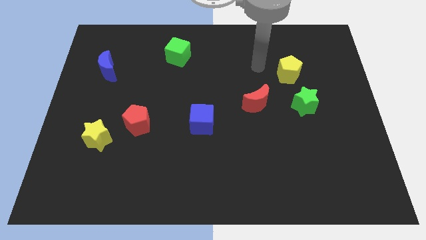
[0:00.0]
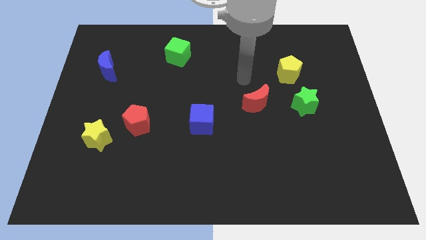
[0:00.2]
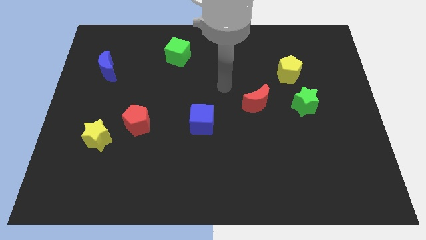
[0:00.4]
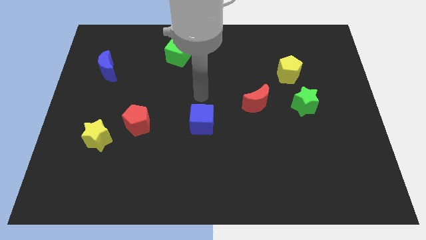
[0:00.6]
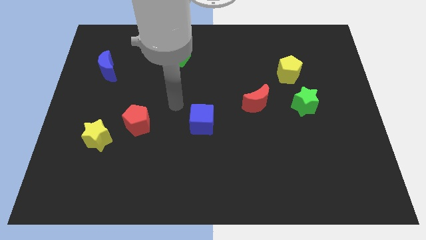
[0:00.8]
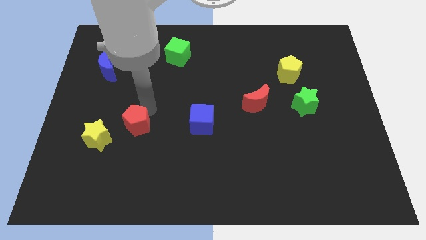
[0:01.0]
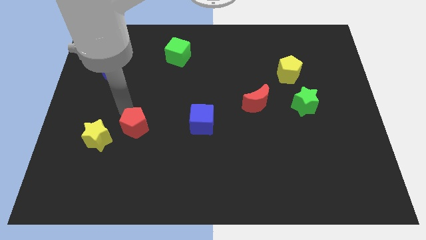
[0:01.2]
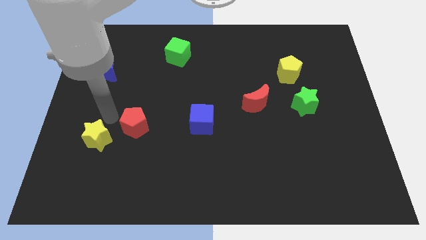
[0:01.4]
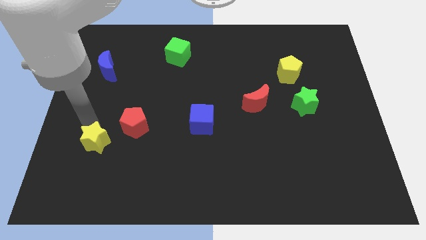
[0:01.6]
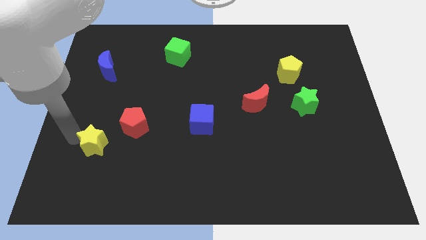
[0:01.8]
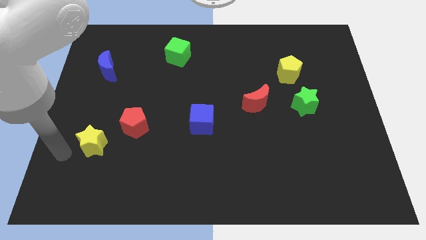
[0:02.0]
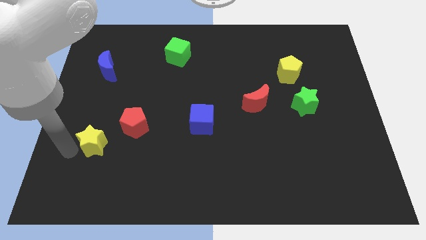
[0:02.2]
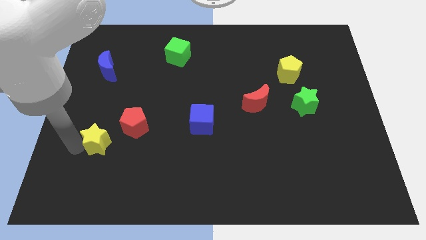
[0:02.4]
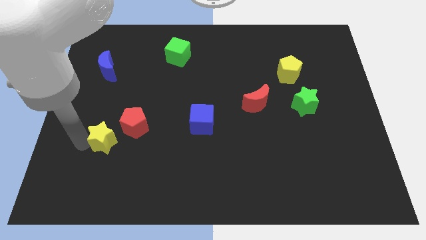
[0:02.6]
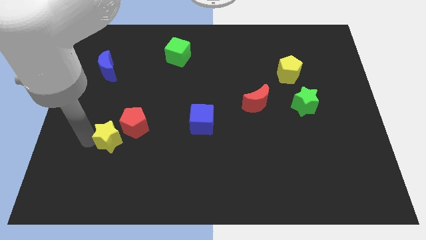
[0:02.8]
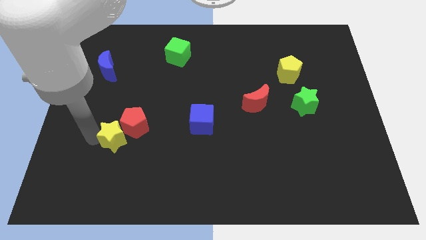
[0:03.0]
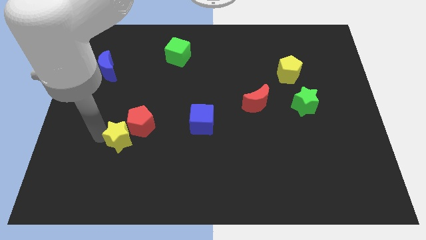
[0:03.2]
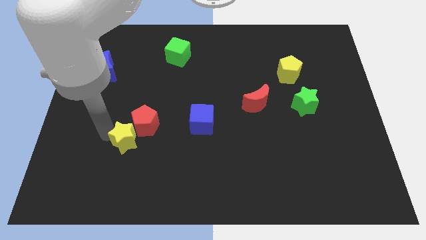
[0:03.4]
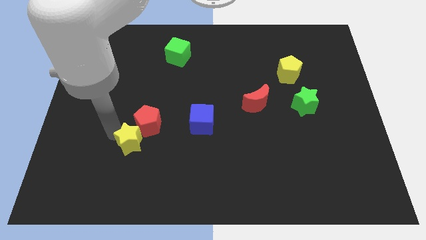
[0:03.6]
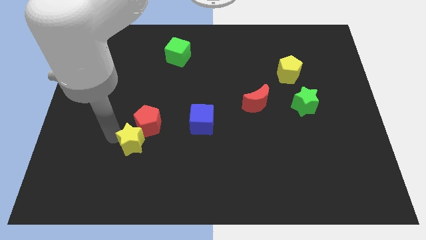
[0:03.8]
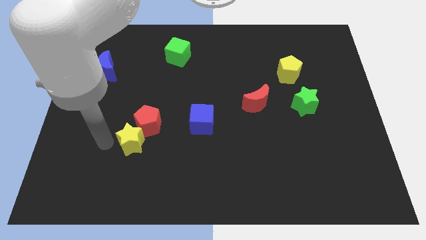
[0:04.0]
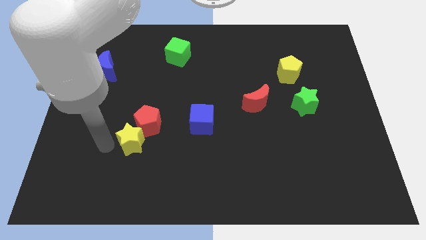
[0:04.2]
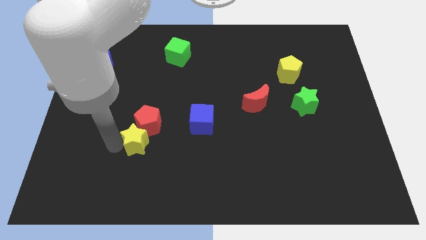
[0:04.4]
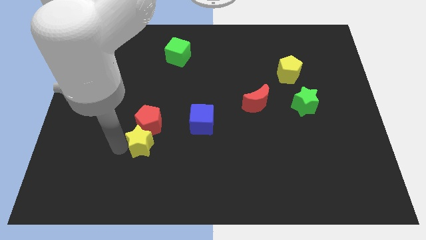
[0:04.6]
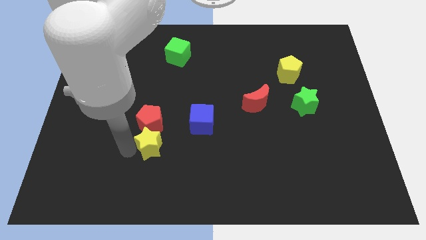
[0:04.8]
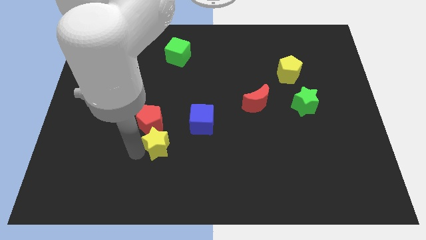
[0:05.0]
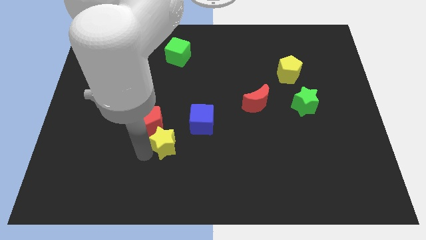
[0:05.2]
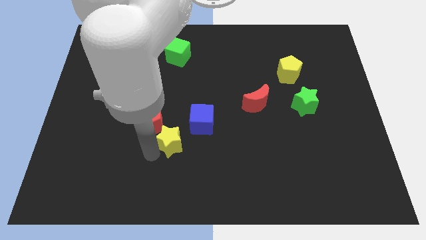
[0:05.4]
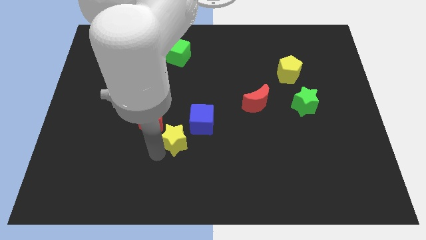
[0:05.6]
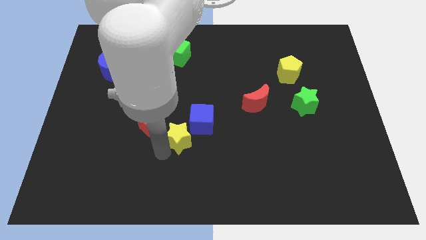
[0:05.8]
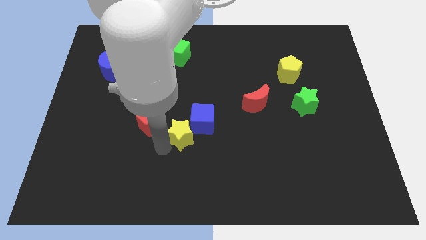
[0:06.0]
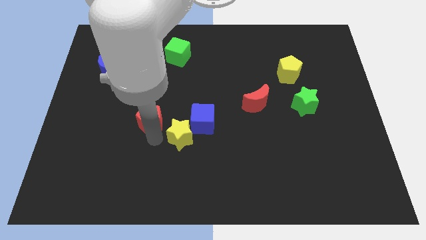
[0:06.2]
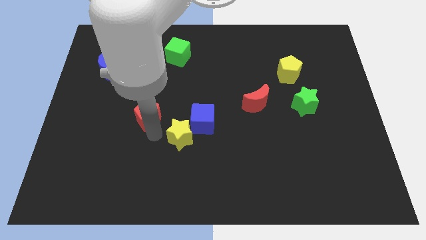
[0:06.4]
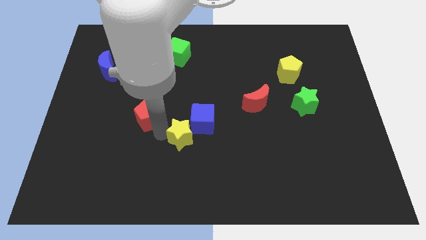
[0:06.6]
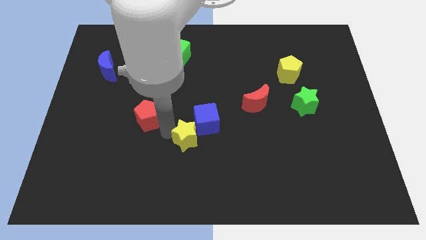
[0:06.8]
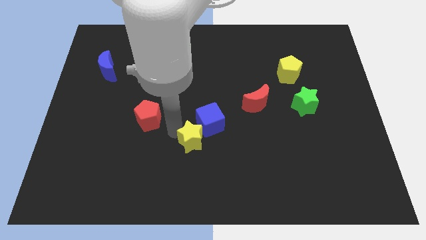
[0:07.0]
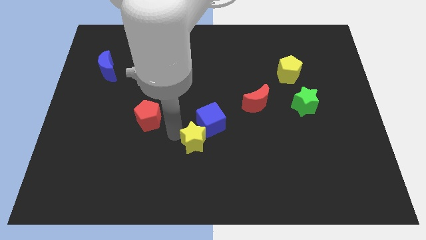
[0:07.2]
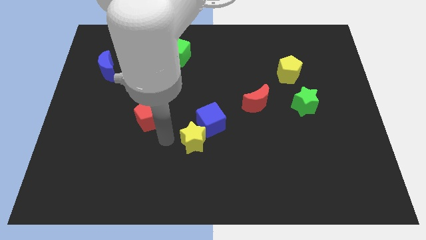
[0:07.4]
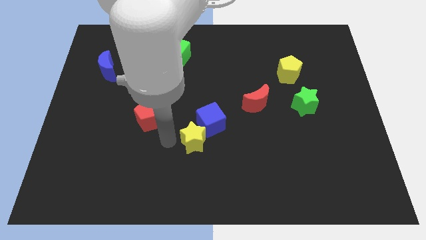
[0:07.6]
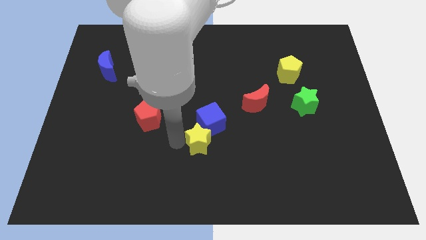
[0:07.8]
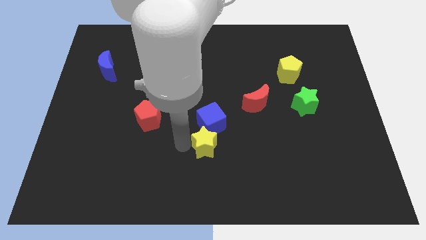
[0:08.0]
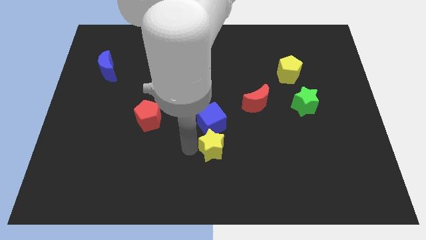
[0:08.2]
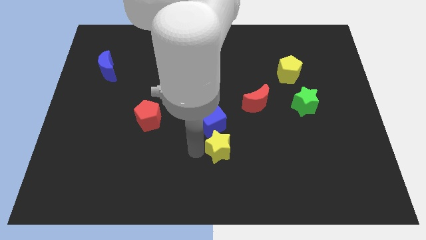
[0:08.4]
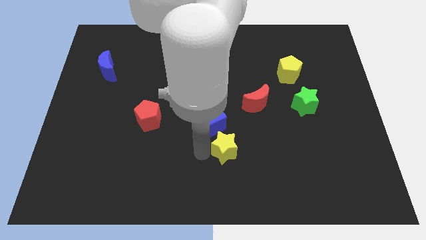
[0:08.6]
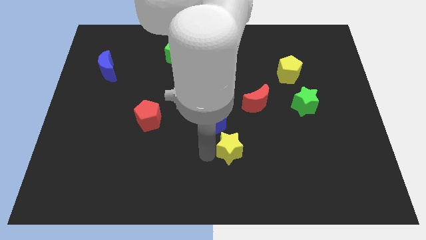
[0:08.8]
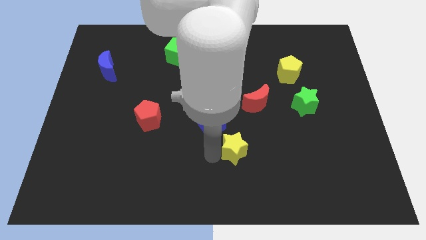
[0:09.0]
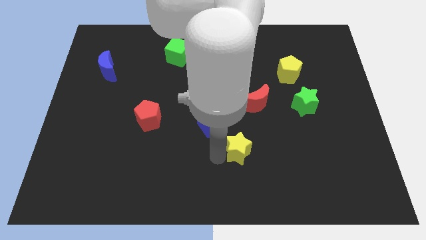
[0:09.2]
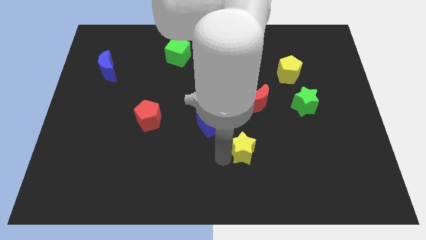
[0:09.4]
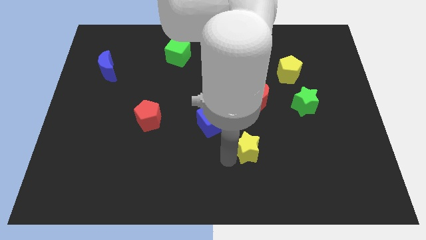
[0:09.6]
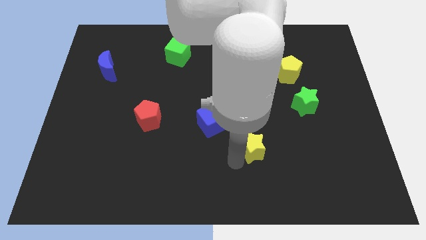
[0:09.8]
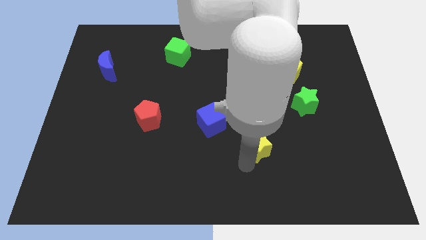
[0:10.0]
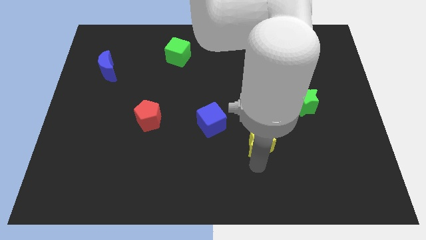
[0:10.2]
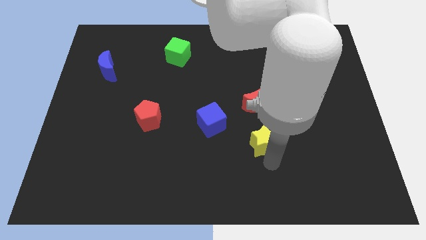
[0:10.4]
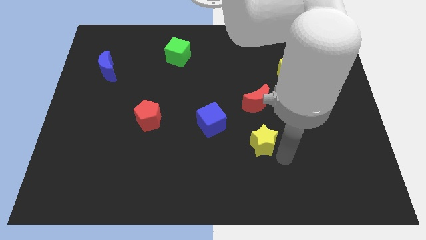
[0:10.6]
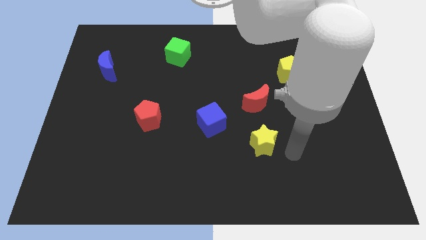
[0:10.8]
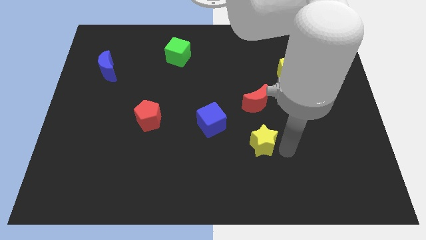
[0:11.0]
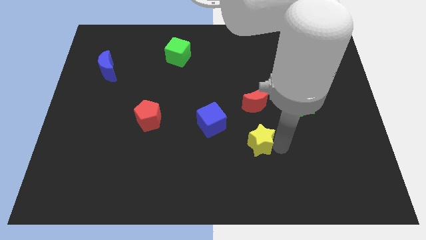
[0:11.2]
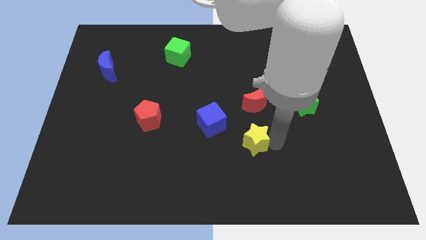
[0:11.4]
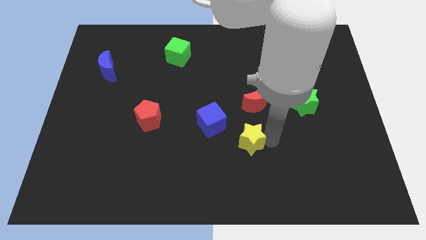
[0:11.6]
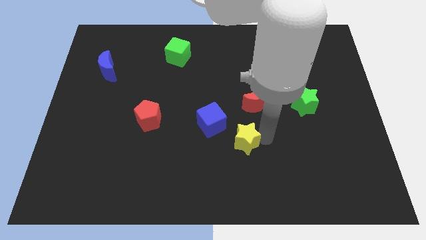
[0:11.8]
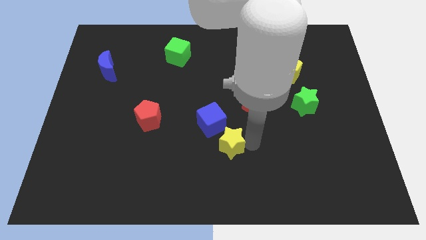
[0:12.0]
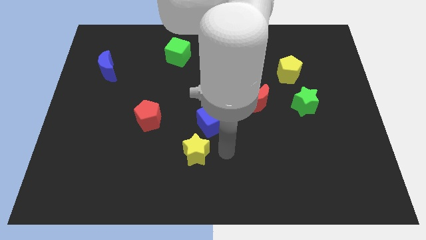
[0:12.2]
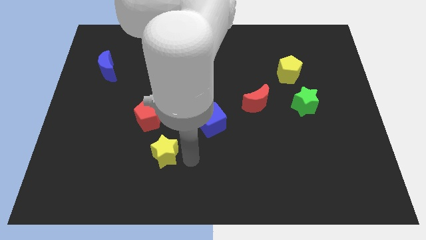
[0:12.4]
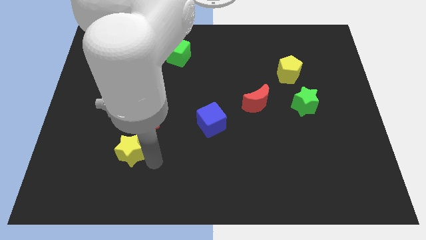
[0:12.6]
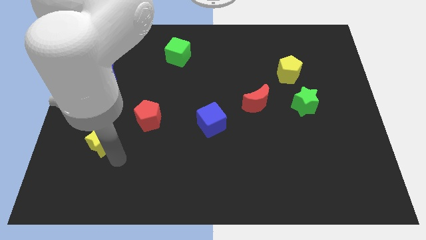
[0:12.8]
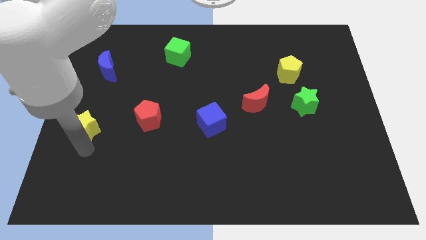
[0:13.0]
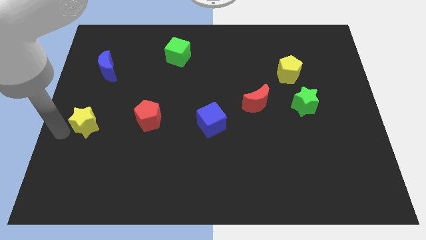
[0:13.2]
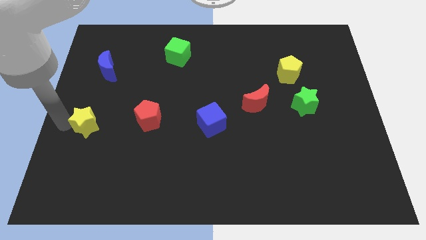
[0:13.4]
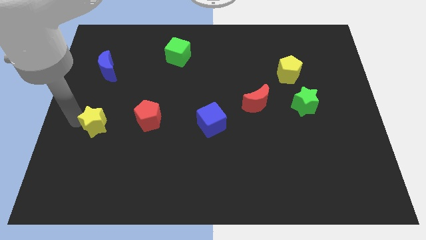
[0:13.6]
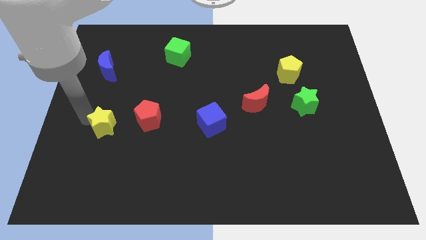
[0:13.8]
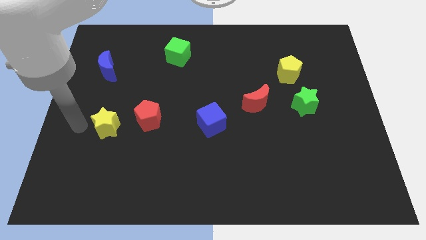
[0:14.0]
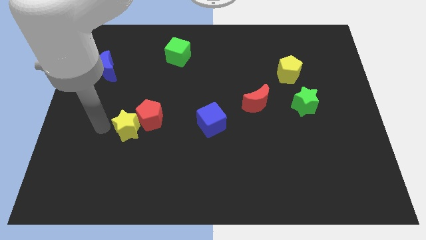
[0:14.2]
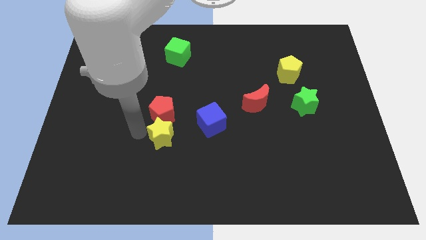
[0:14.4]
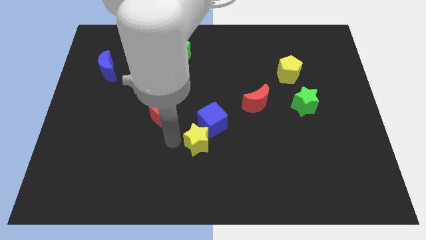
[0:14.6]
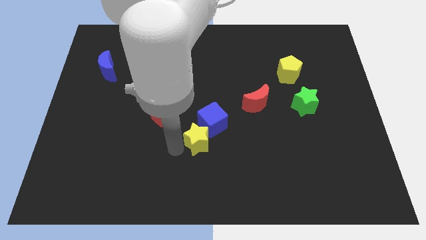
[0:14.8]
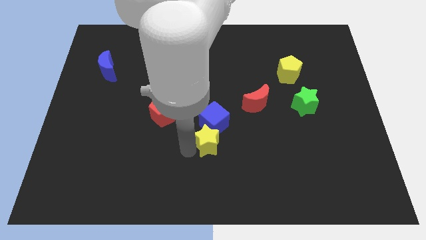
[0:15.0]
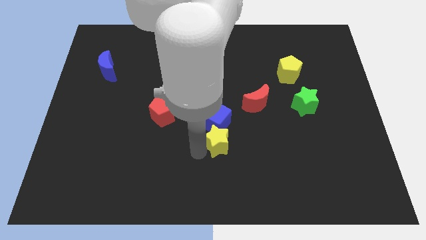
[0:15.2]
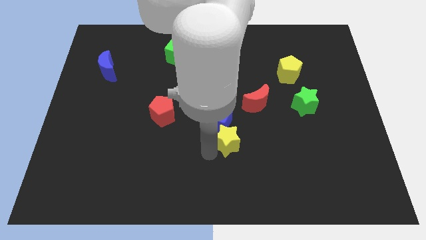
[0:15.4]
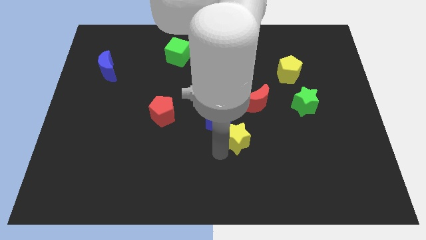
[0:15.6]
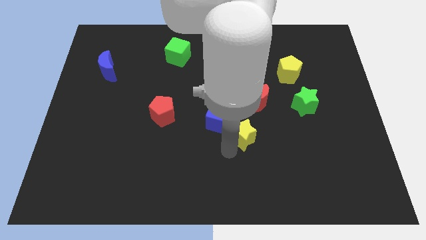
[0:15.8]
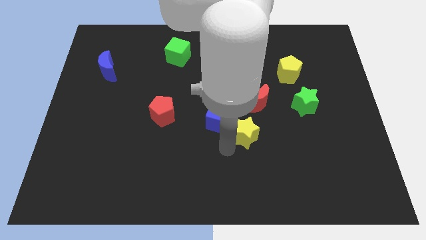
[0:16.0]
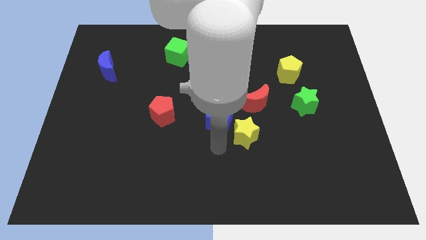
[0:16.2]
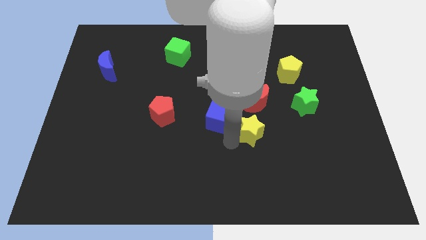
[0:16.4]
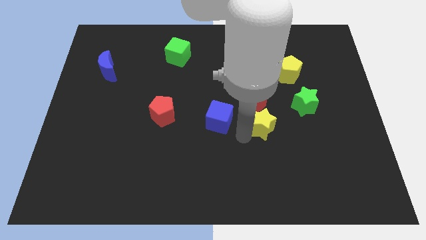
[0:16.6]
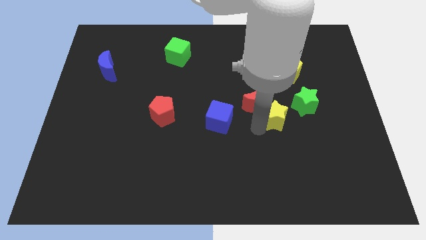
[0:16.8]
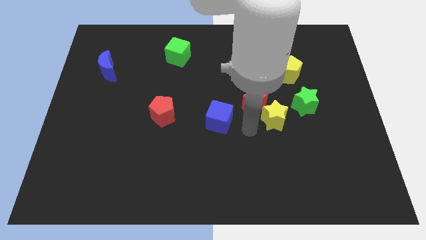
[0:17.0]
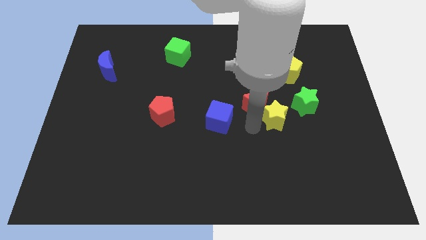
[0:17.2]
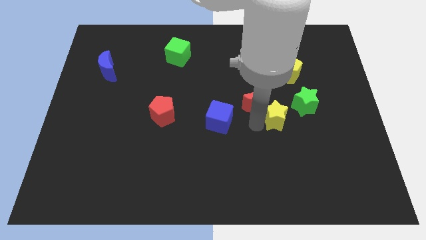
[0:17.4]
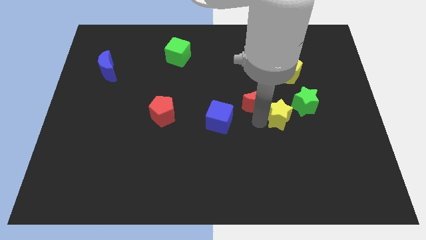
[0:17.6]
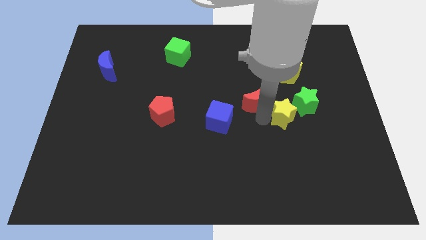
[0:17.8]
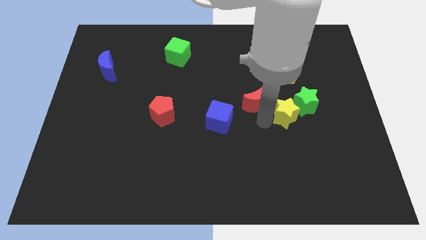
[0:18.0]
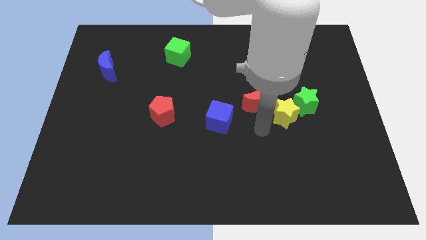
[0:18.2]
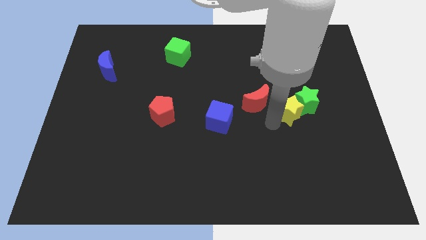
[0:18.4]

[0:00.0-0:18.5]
put the yellow star to the green star
